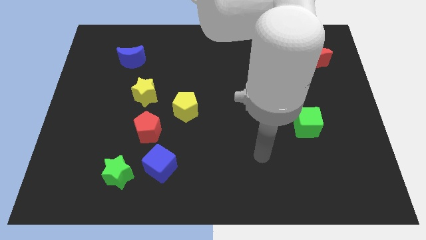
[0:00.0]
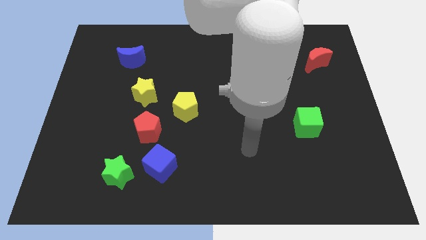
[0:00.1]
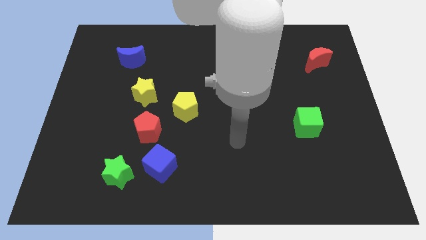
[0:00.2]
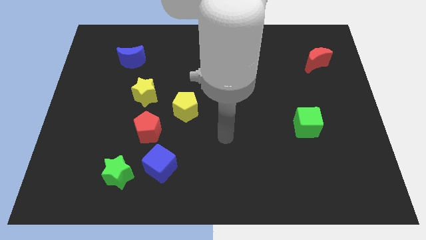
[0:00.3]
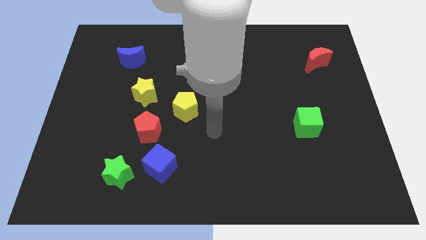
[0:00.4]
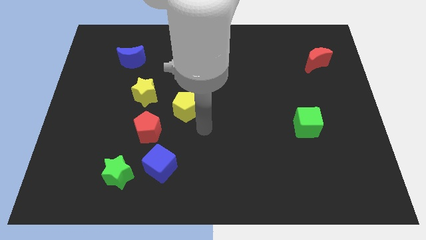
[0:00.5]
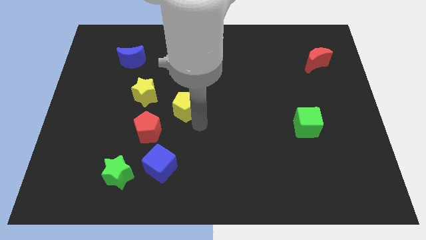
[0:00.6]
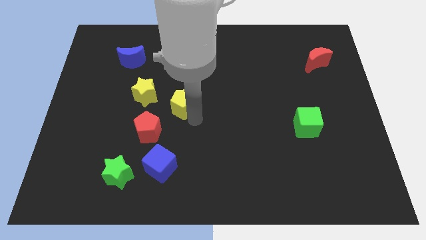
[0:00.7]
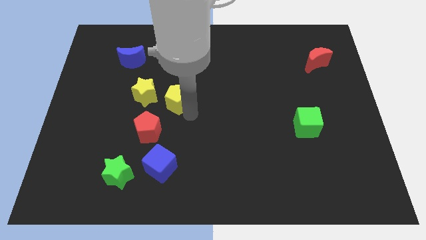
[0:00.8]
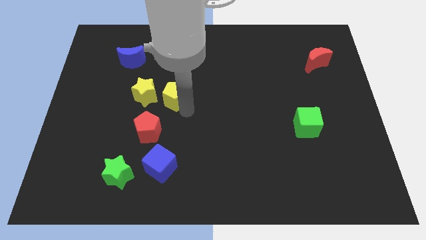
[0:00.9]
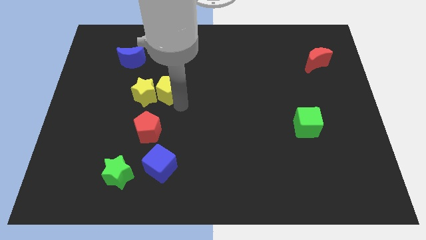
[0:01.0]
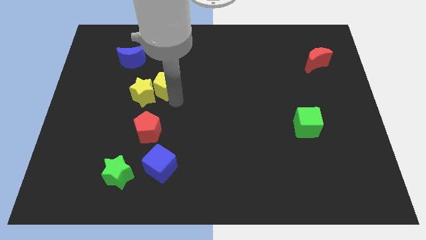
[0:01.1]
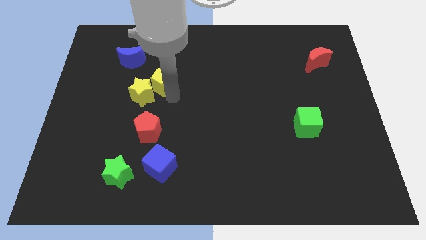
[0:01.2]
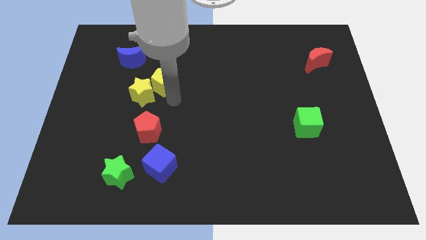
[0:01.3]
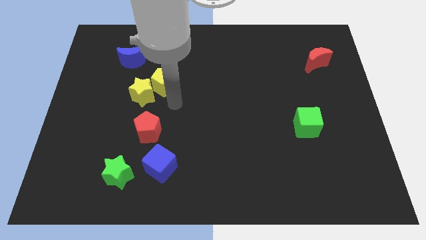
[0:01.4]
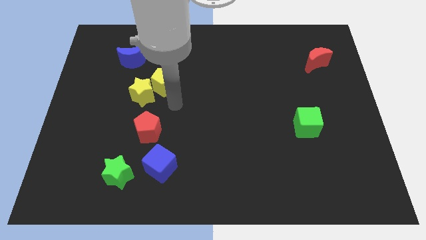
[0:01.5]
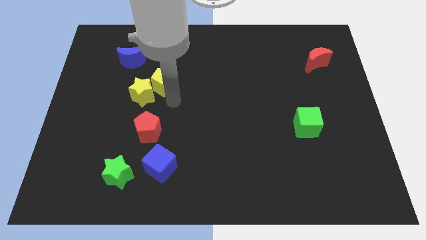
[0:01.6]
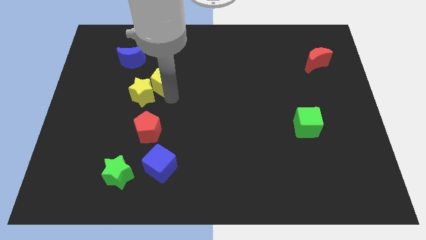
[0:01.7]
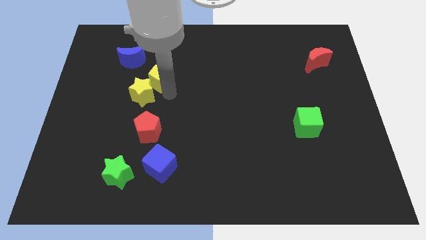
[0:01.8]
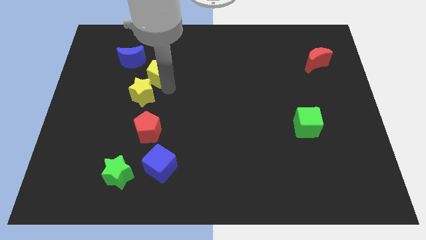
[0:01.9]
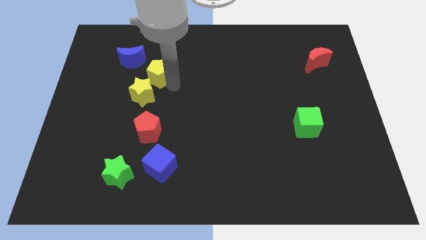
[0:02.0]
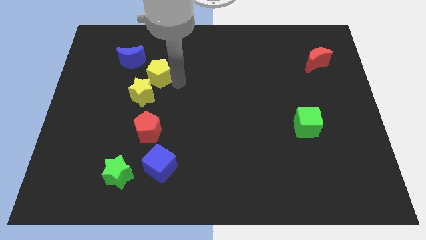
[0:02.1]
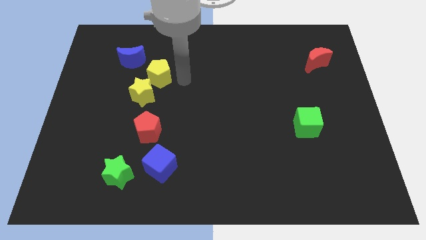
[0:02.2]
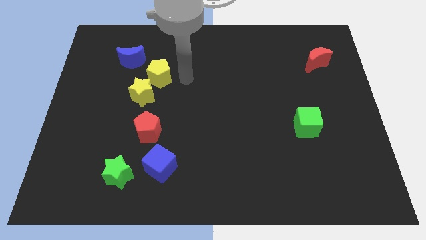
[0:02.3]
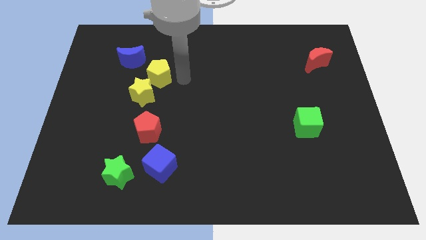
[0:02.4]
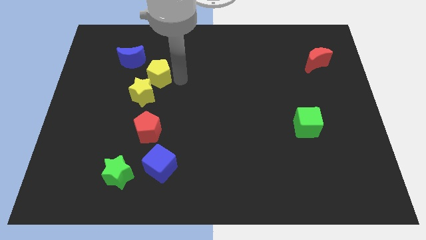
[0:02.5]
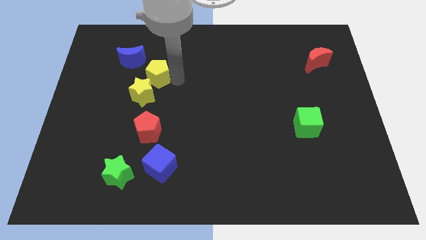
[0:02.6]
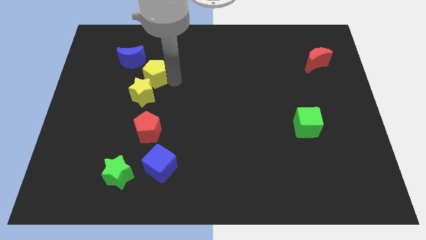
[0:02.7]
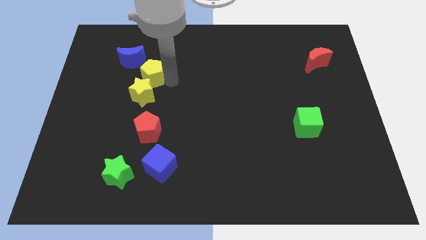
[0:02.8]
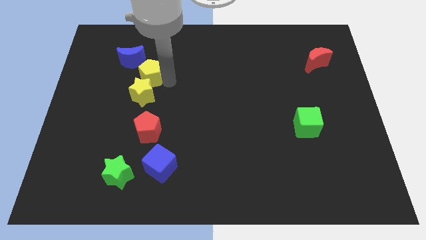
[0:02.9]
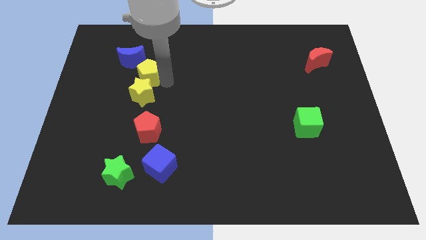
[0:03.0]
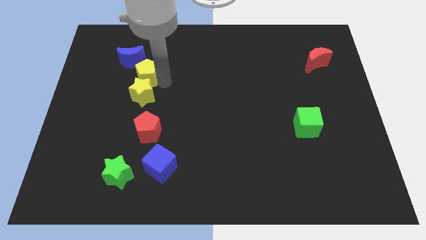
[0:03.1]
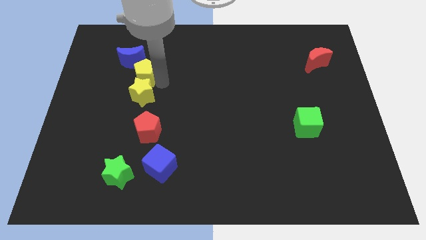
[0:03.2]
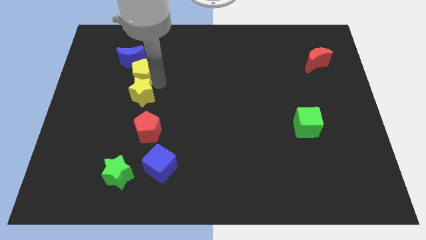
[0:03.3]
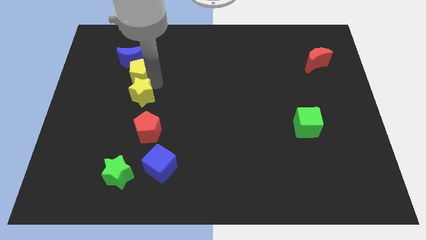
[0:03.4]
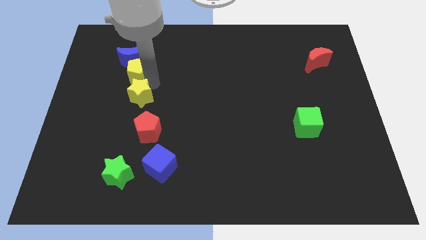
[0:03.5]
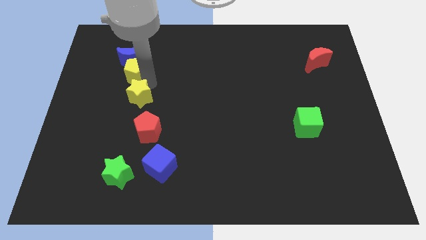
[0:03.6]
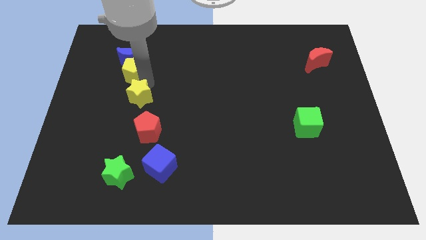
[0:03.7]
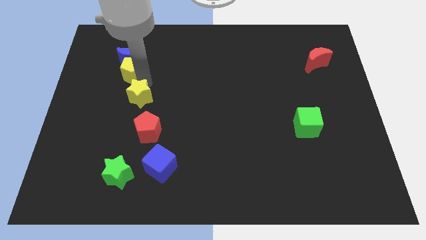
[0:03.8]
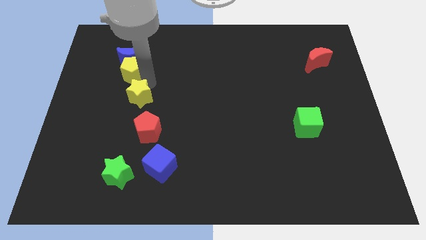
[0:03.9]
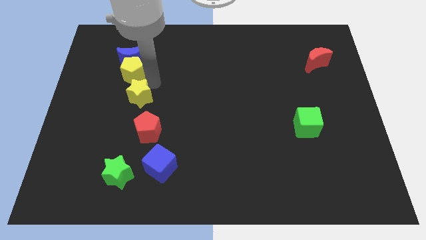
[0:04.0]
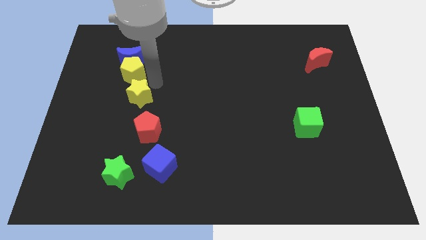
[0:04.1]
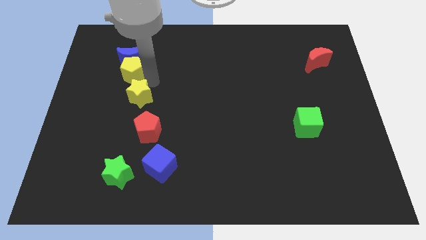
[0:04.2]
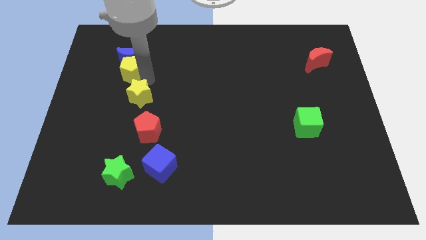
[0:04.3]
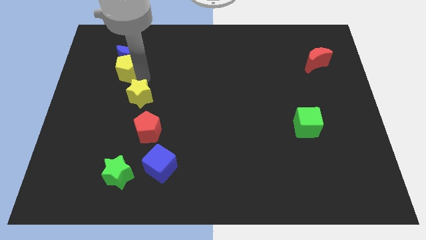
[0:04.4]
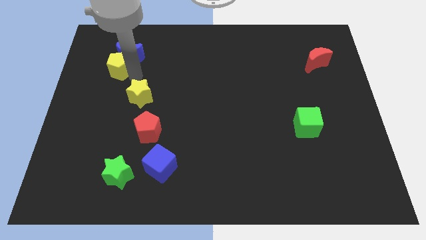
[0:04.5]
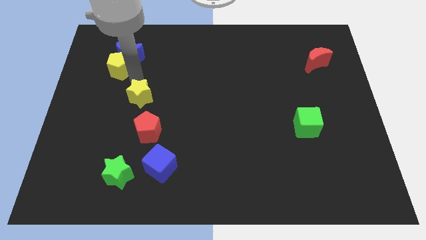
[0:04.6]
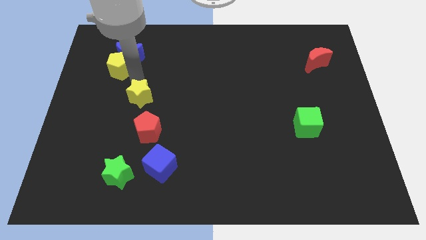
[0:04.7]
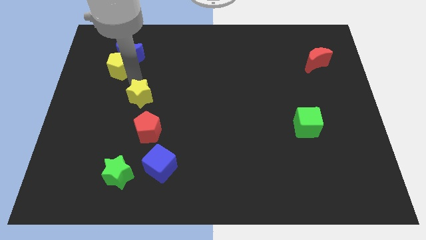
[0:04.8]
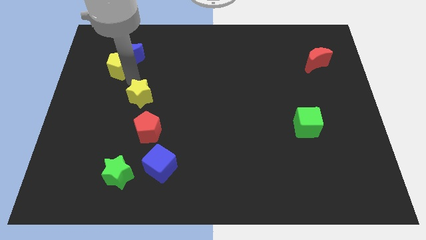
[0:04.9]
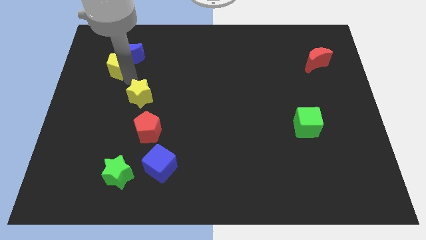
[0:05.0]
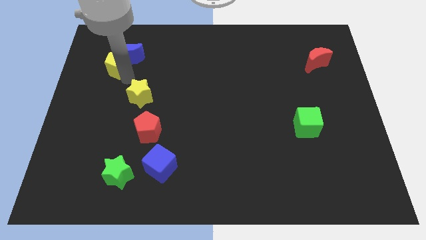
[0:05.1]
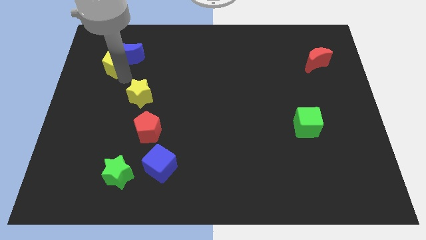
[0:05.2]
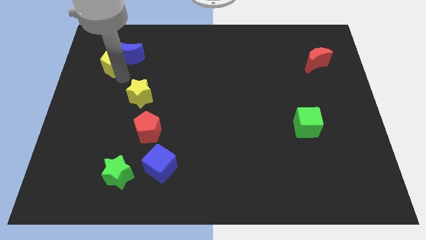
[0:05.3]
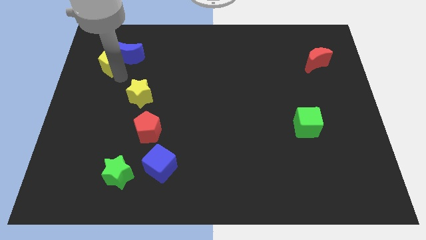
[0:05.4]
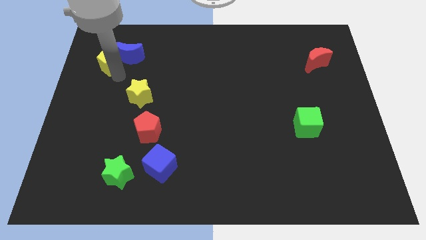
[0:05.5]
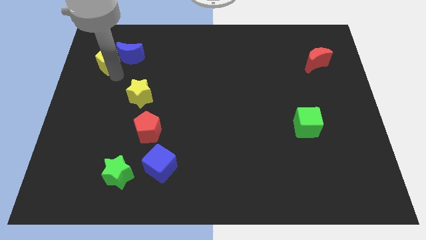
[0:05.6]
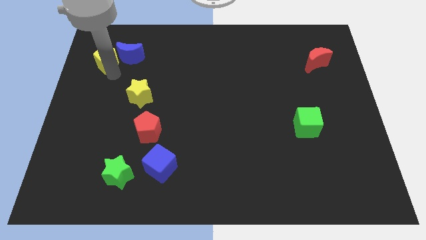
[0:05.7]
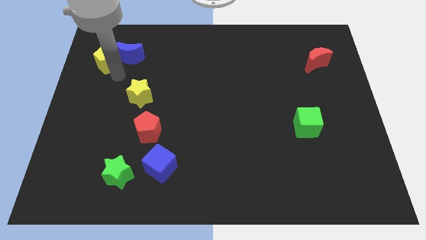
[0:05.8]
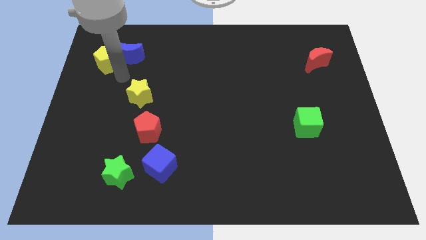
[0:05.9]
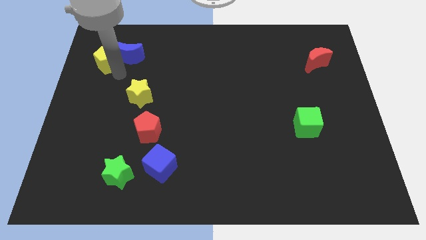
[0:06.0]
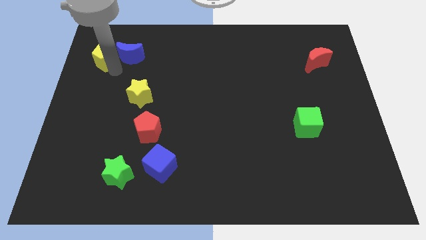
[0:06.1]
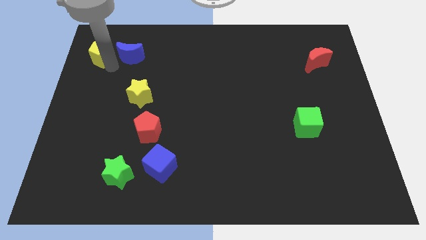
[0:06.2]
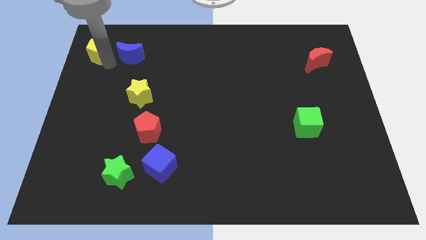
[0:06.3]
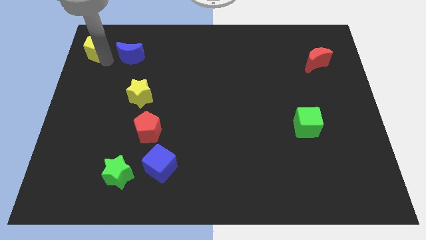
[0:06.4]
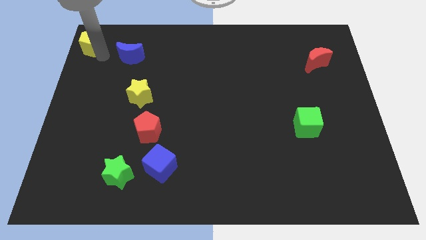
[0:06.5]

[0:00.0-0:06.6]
push the yellow pentagon to the top left of the board

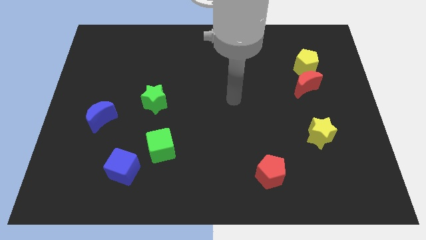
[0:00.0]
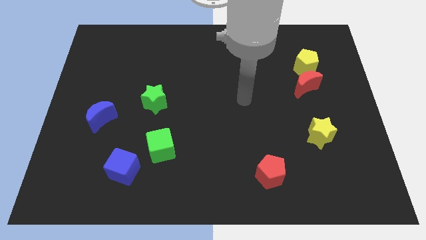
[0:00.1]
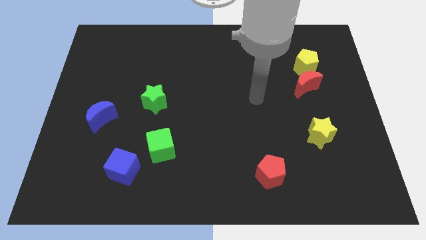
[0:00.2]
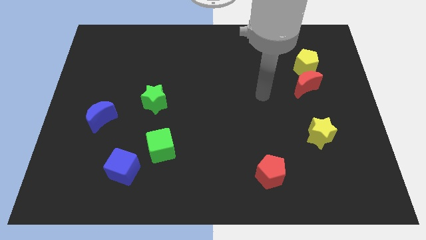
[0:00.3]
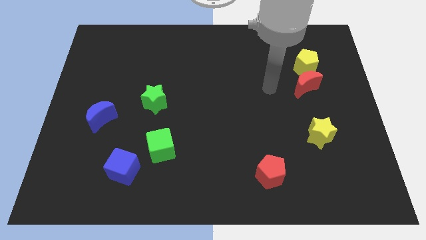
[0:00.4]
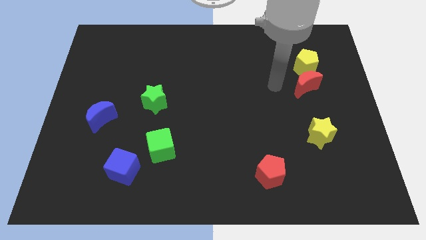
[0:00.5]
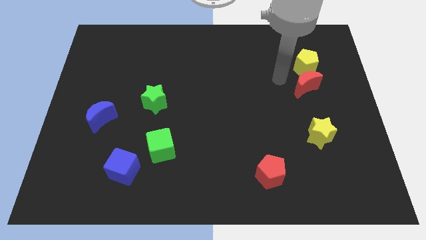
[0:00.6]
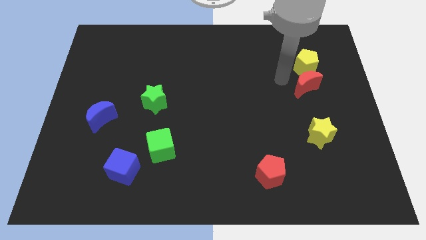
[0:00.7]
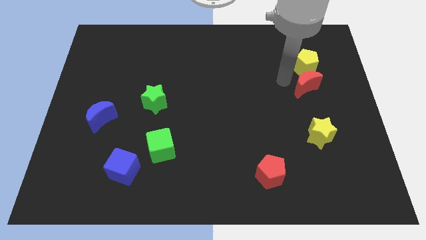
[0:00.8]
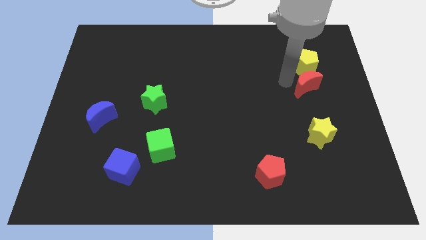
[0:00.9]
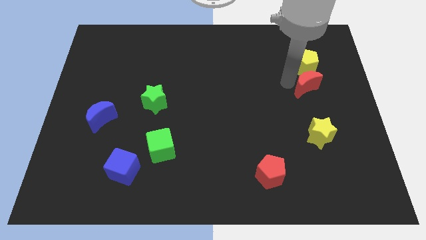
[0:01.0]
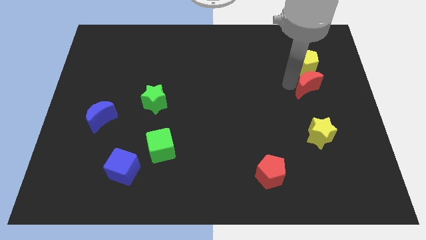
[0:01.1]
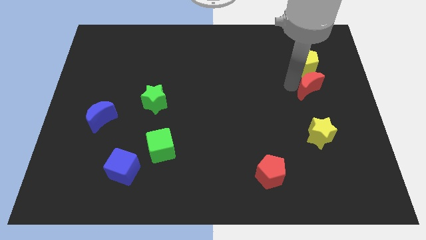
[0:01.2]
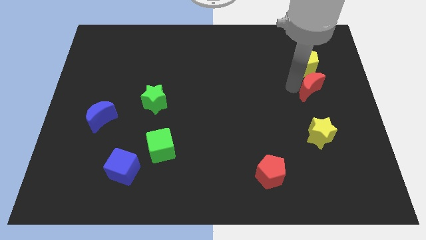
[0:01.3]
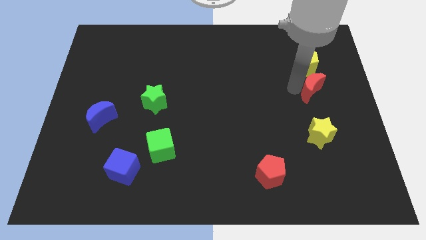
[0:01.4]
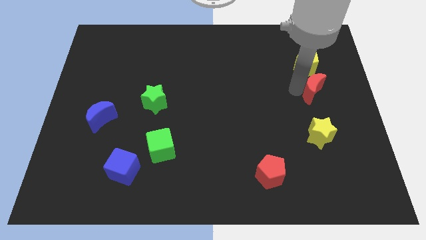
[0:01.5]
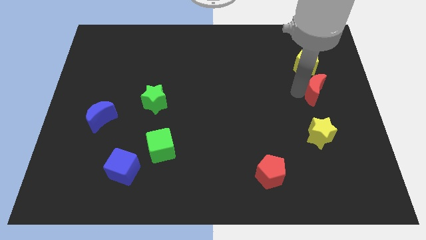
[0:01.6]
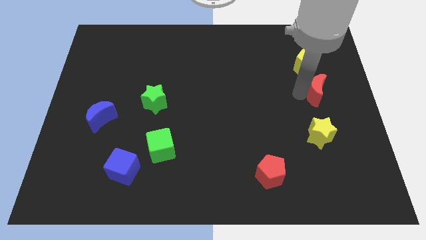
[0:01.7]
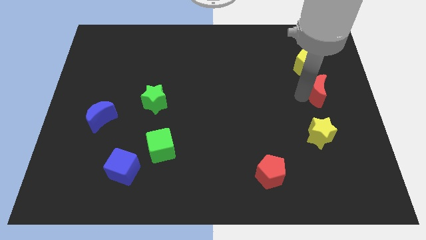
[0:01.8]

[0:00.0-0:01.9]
push the red moon to the center right
